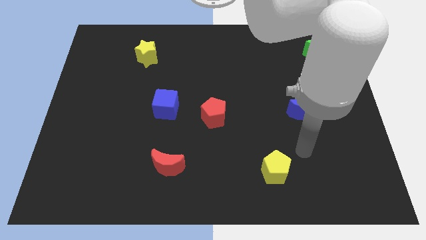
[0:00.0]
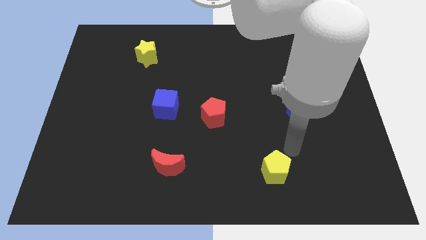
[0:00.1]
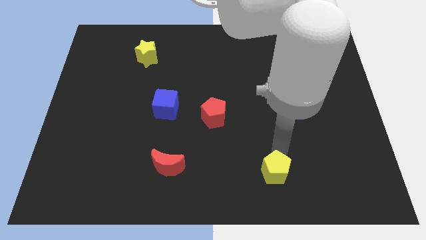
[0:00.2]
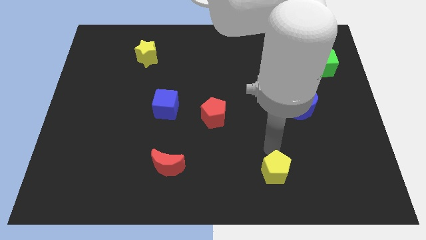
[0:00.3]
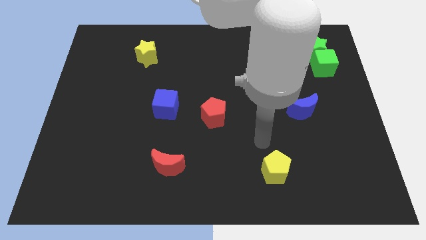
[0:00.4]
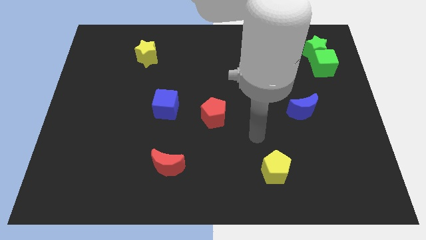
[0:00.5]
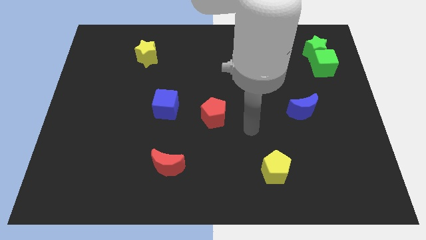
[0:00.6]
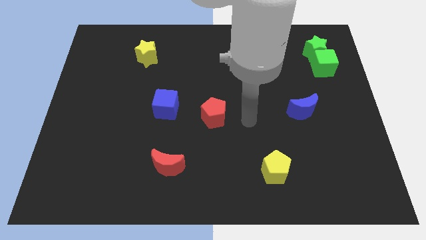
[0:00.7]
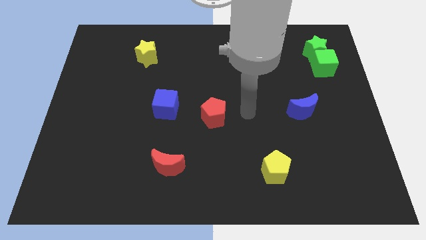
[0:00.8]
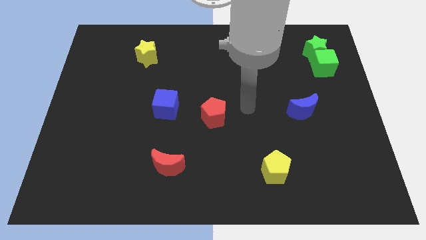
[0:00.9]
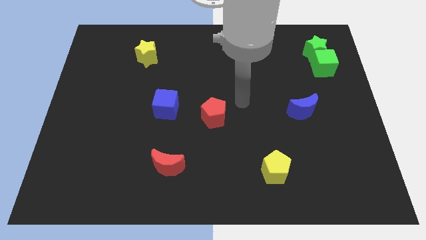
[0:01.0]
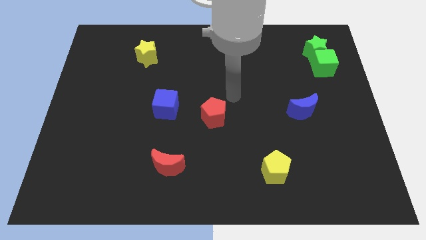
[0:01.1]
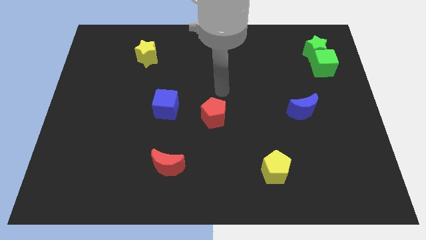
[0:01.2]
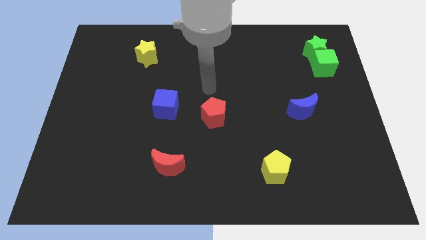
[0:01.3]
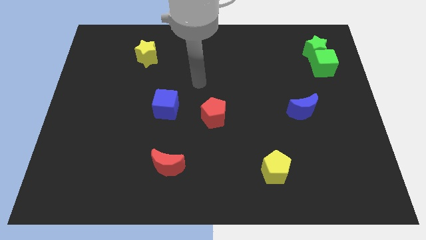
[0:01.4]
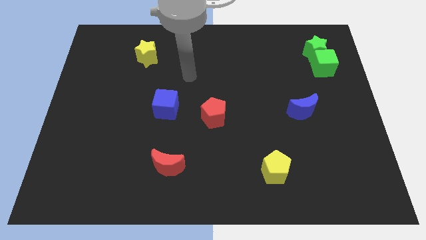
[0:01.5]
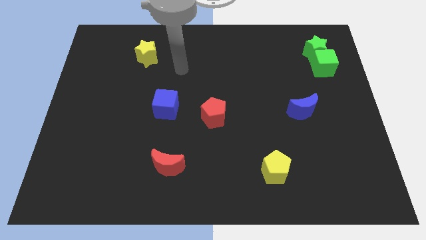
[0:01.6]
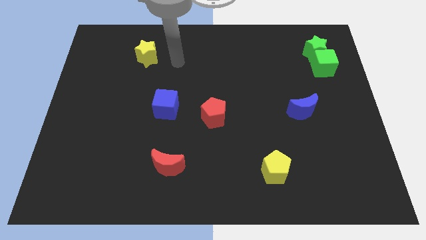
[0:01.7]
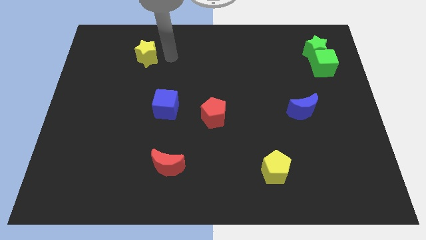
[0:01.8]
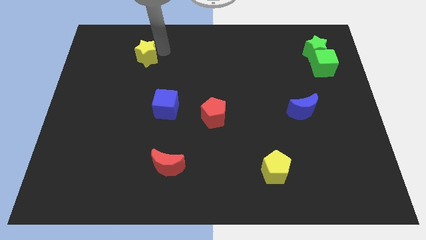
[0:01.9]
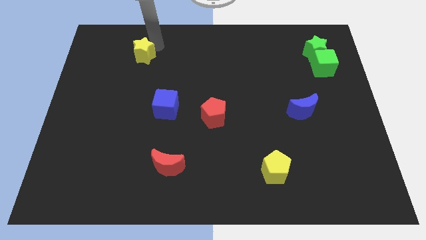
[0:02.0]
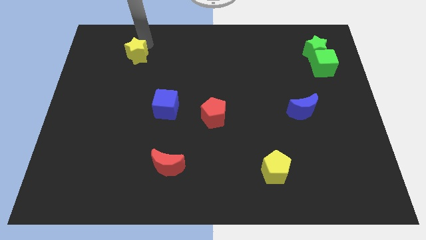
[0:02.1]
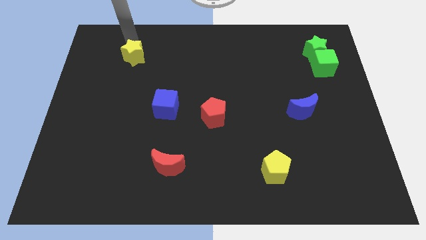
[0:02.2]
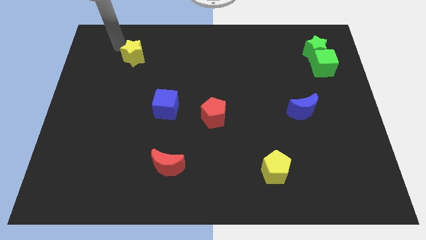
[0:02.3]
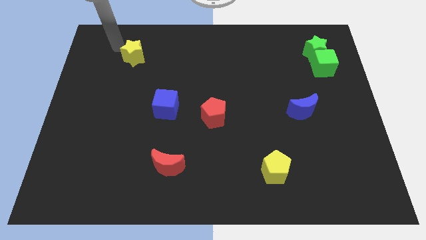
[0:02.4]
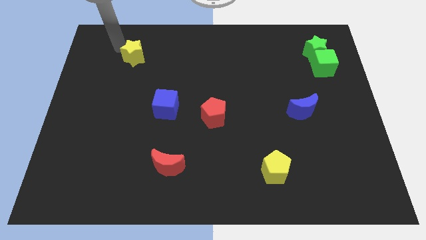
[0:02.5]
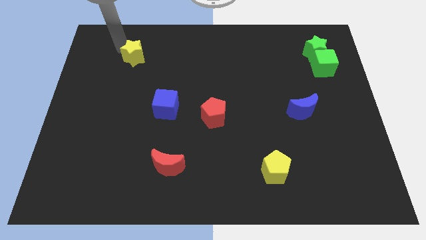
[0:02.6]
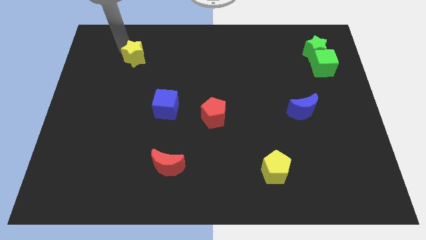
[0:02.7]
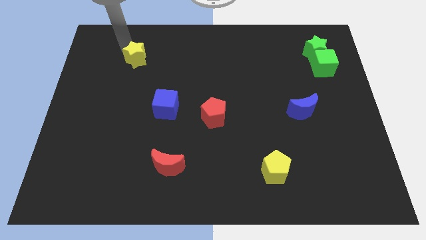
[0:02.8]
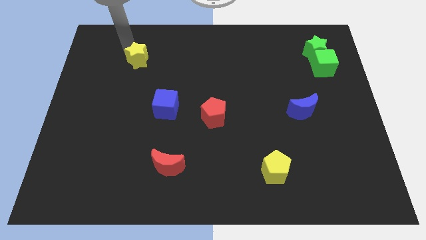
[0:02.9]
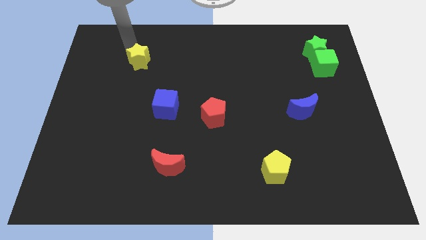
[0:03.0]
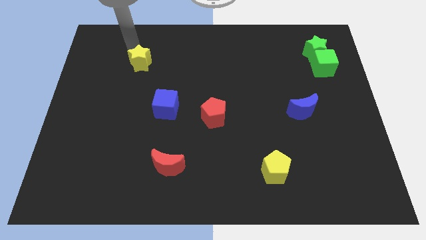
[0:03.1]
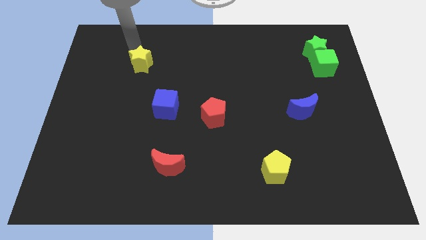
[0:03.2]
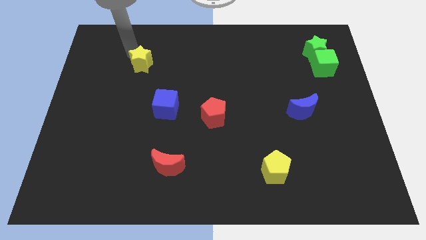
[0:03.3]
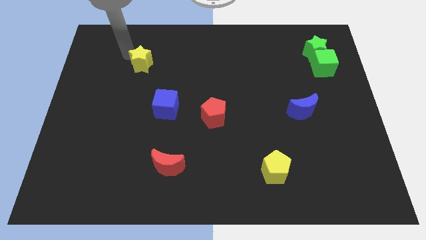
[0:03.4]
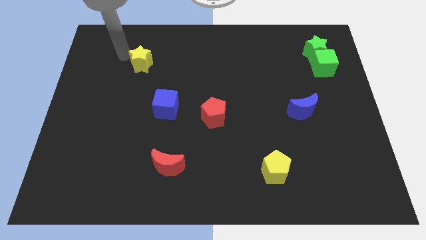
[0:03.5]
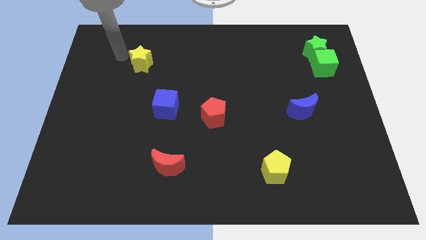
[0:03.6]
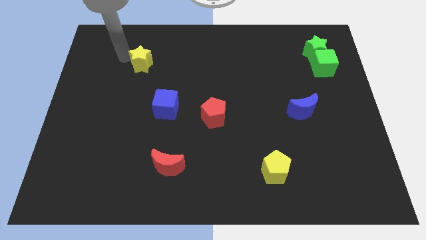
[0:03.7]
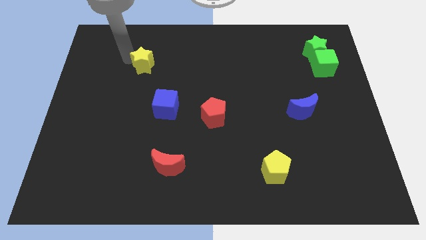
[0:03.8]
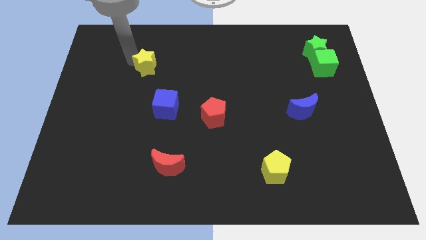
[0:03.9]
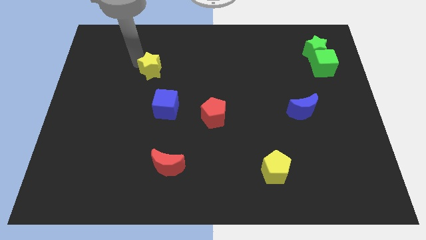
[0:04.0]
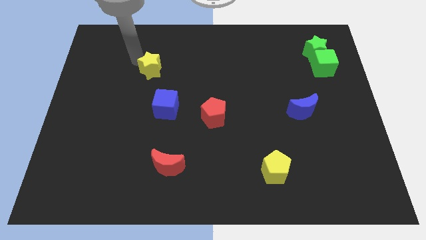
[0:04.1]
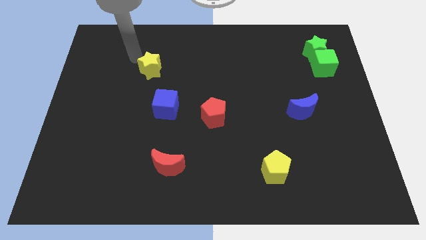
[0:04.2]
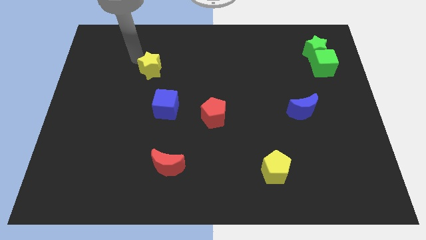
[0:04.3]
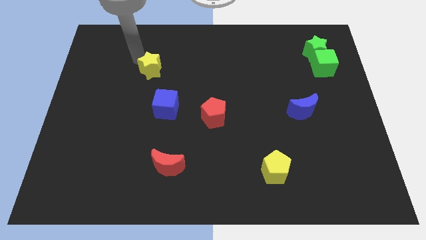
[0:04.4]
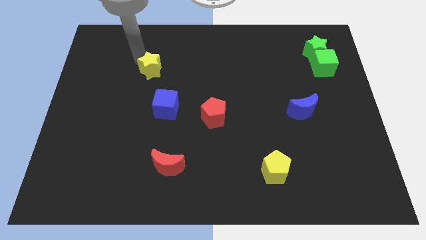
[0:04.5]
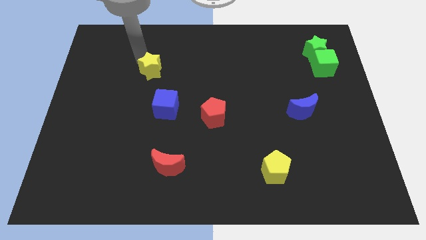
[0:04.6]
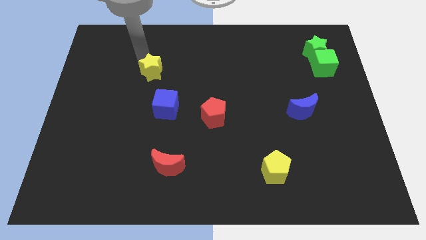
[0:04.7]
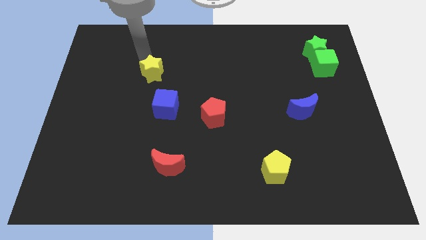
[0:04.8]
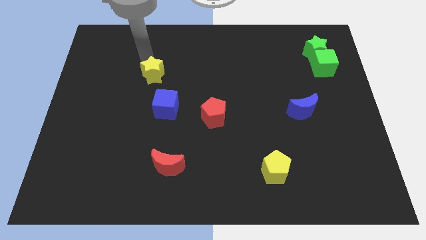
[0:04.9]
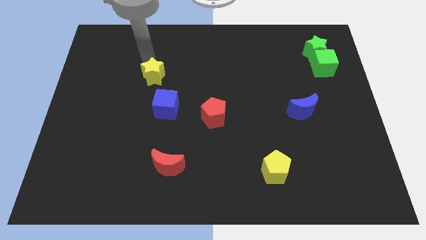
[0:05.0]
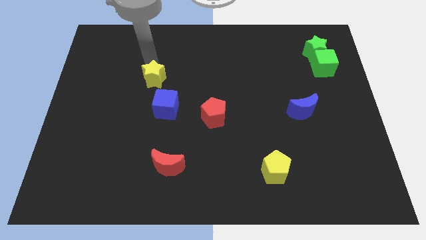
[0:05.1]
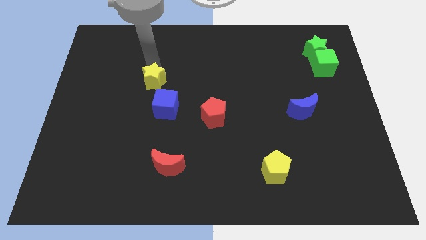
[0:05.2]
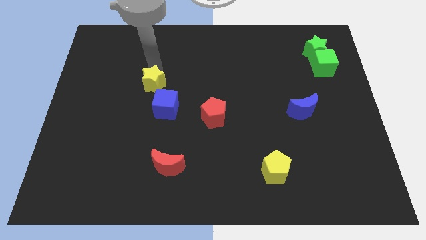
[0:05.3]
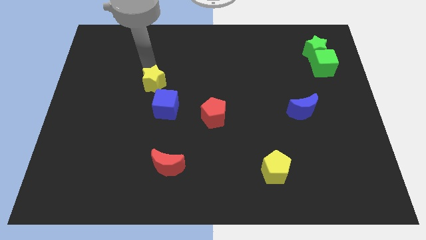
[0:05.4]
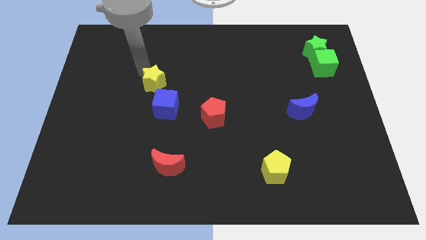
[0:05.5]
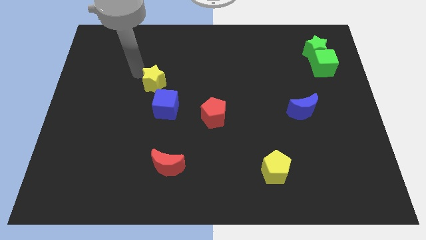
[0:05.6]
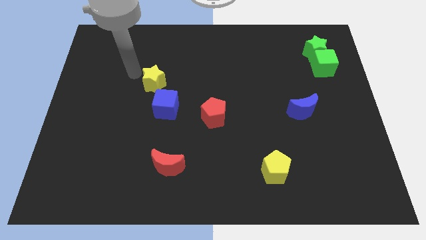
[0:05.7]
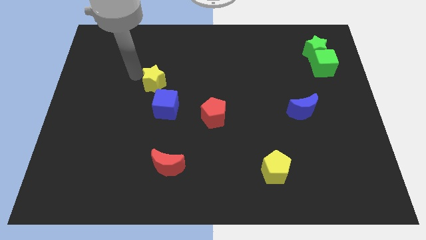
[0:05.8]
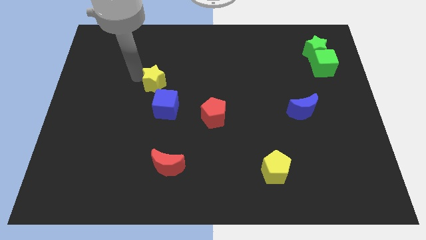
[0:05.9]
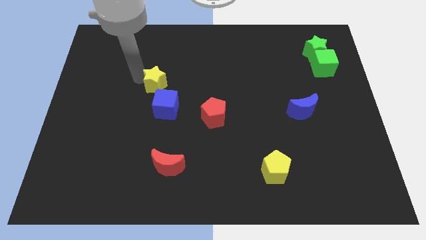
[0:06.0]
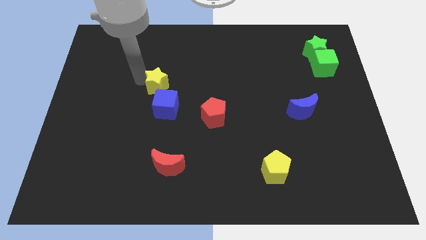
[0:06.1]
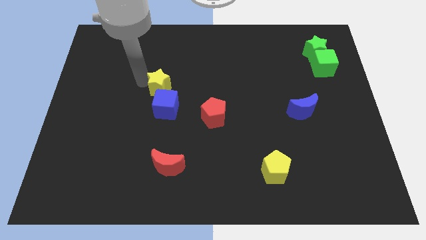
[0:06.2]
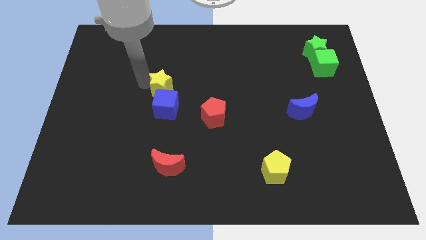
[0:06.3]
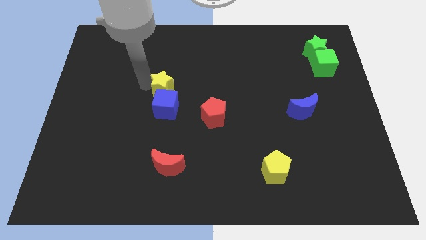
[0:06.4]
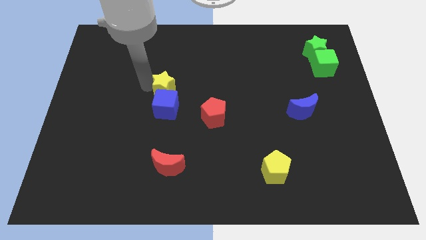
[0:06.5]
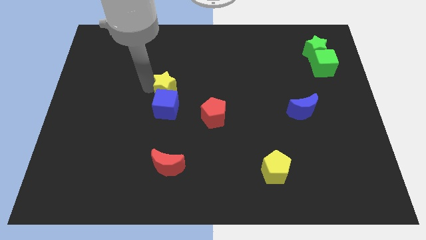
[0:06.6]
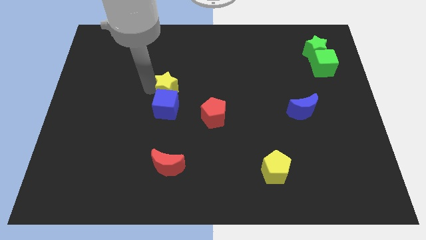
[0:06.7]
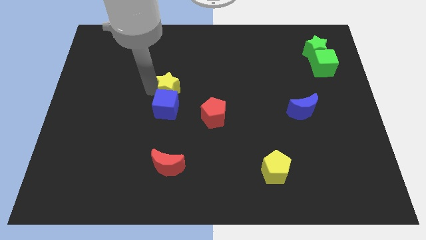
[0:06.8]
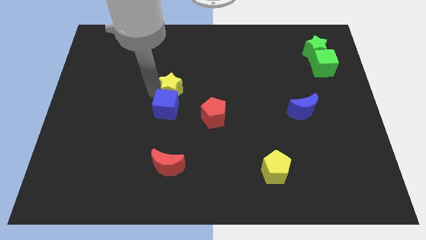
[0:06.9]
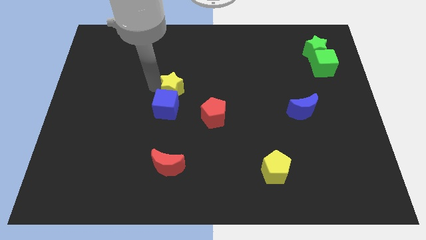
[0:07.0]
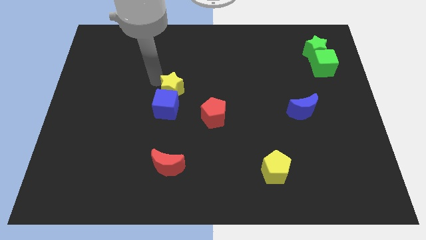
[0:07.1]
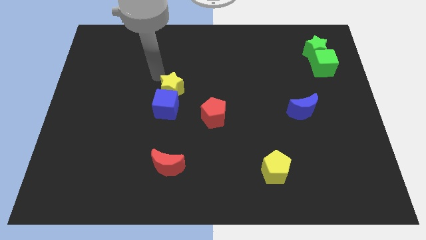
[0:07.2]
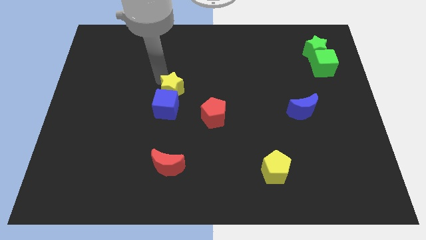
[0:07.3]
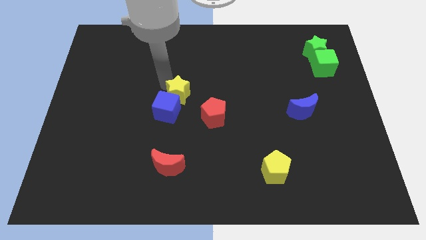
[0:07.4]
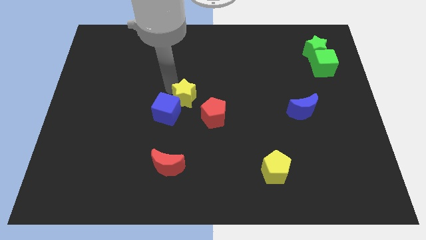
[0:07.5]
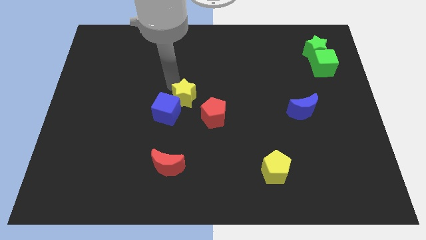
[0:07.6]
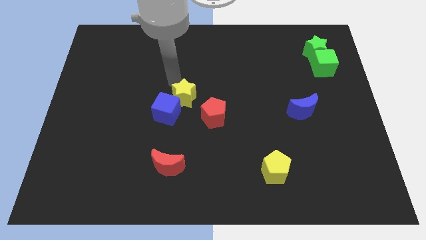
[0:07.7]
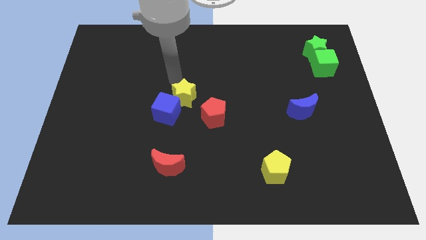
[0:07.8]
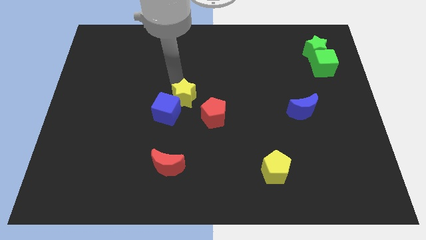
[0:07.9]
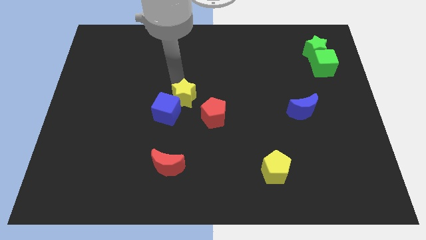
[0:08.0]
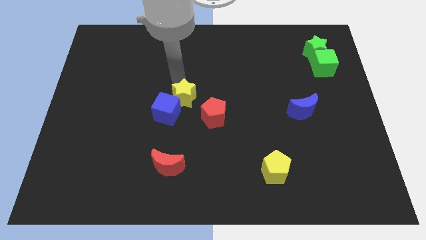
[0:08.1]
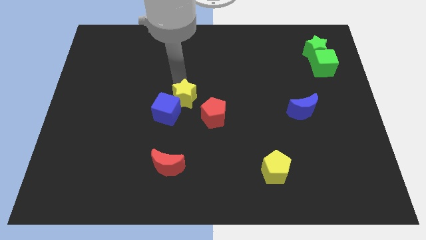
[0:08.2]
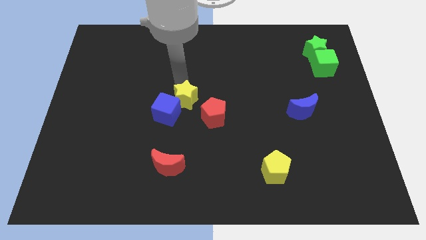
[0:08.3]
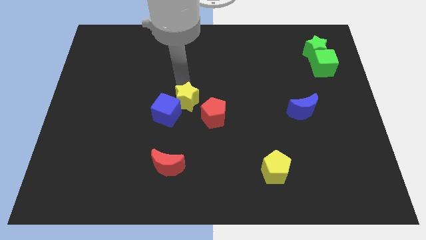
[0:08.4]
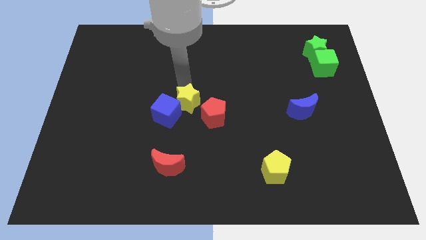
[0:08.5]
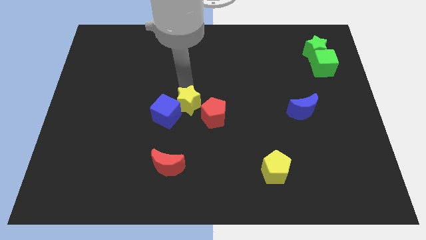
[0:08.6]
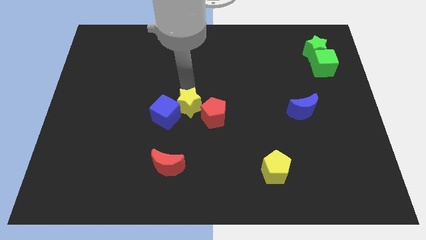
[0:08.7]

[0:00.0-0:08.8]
push the yellow star downwards and right diagonally
